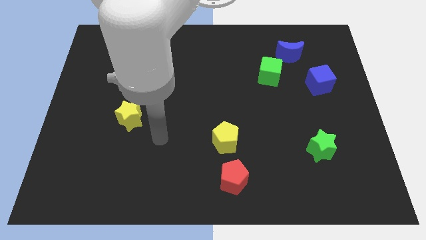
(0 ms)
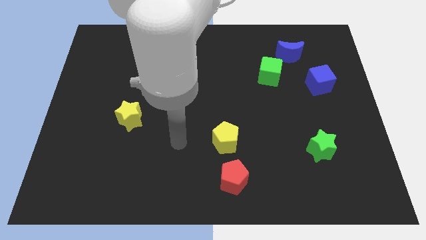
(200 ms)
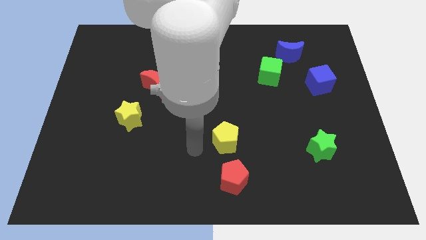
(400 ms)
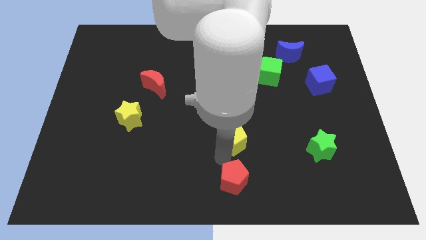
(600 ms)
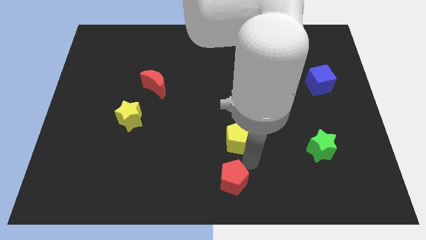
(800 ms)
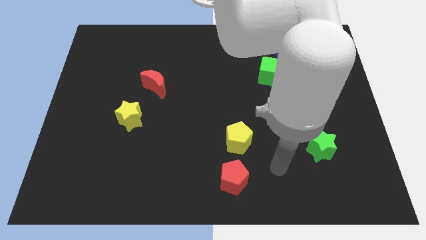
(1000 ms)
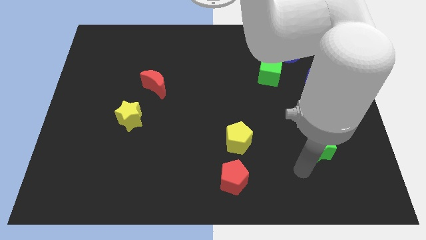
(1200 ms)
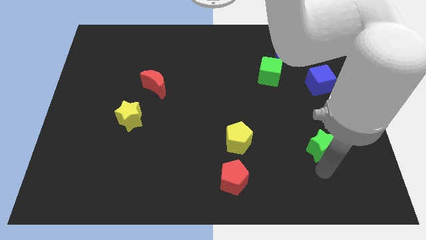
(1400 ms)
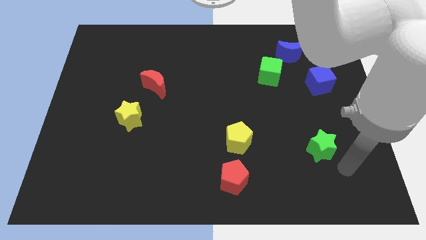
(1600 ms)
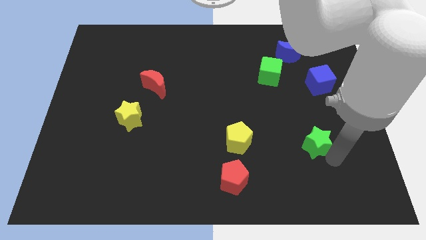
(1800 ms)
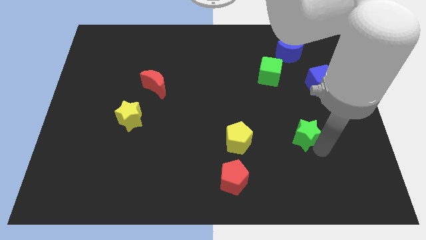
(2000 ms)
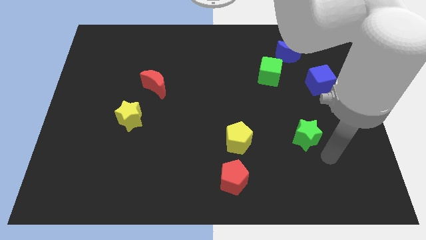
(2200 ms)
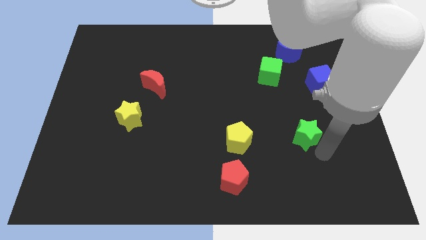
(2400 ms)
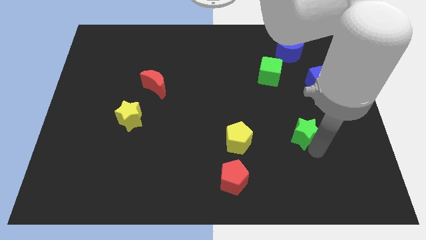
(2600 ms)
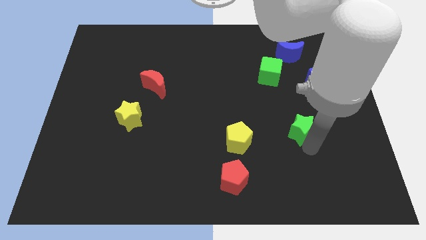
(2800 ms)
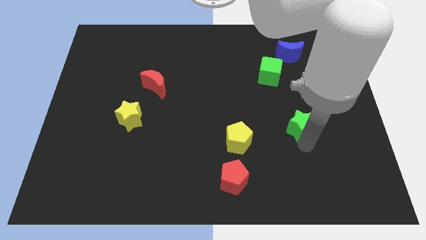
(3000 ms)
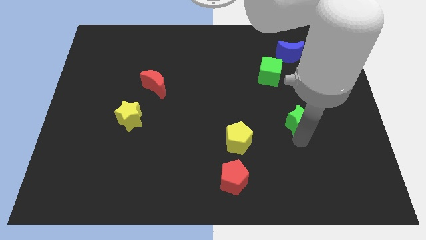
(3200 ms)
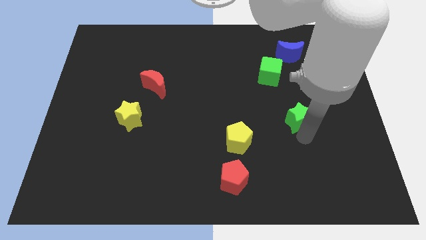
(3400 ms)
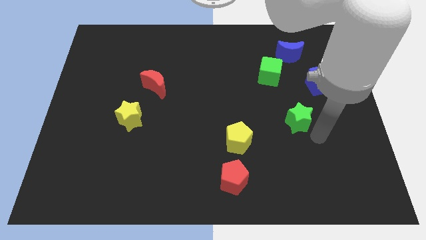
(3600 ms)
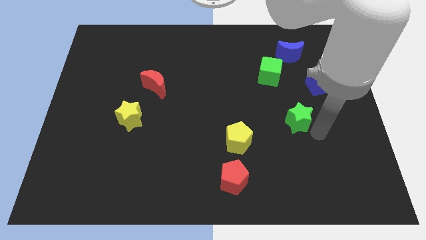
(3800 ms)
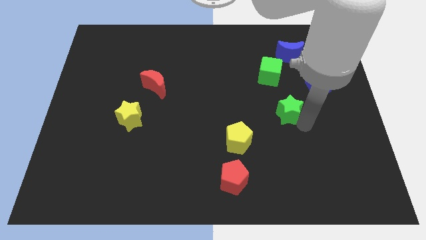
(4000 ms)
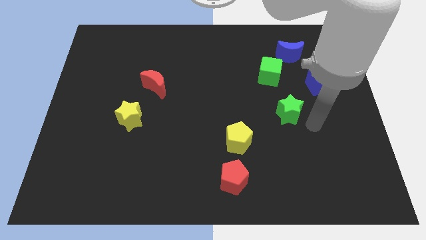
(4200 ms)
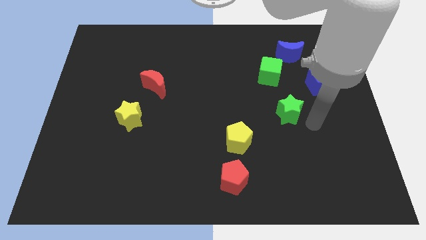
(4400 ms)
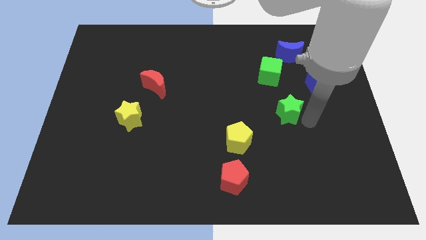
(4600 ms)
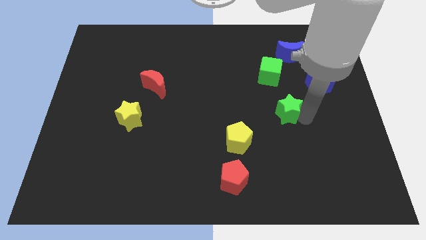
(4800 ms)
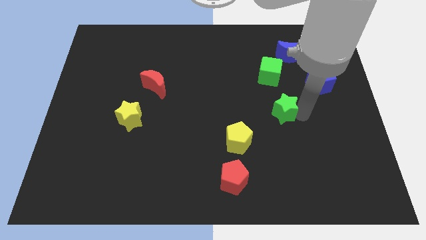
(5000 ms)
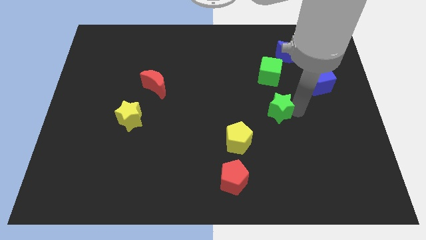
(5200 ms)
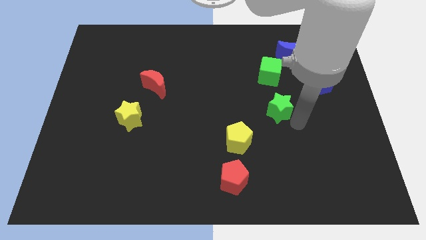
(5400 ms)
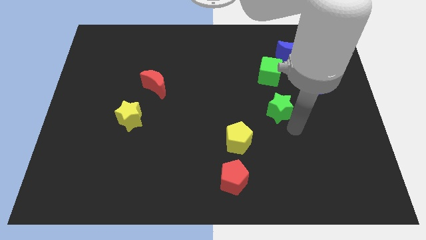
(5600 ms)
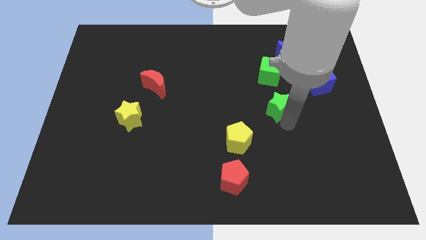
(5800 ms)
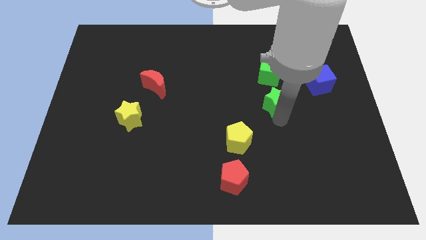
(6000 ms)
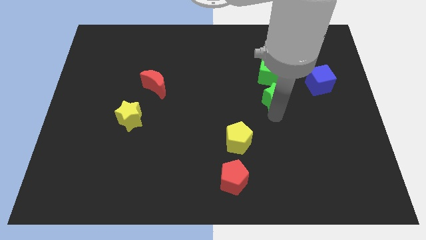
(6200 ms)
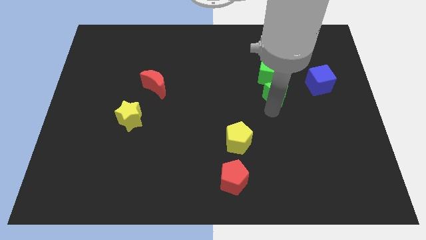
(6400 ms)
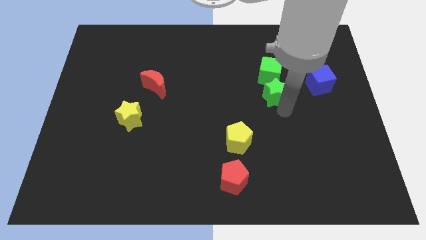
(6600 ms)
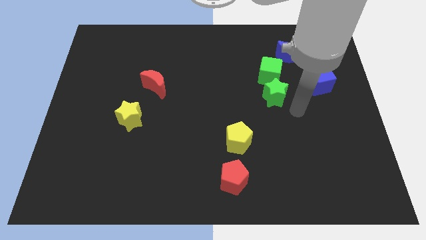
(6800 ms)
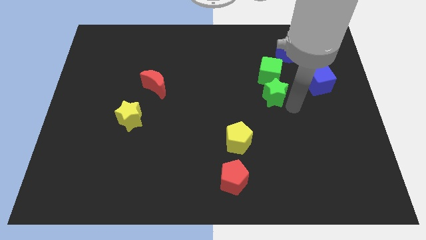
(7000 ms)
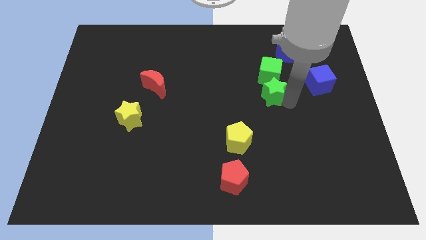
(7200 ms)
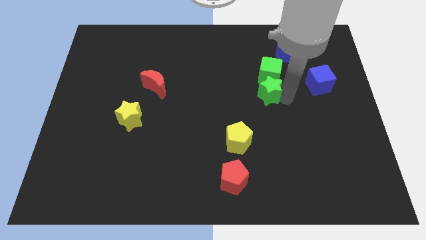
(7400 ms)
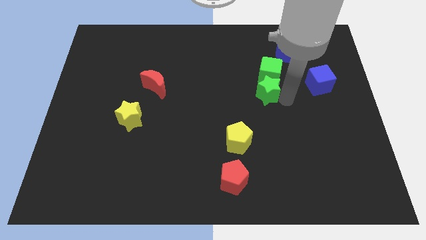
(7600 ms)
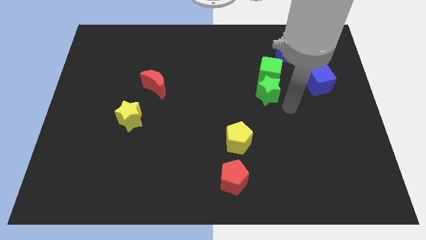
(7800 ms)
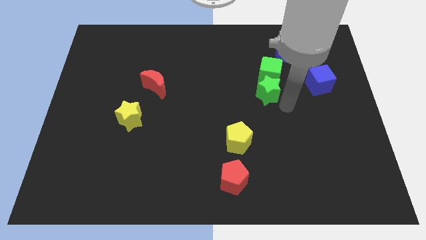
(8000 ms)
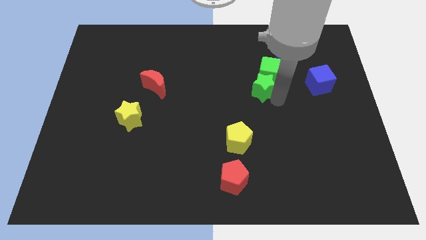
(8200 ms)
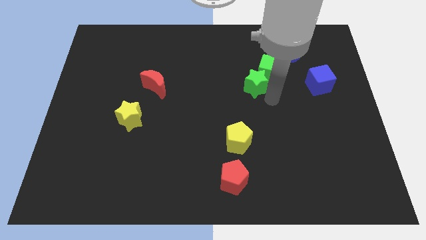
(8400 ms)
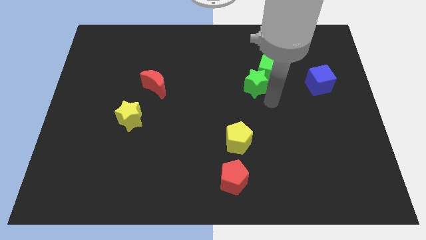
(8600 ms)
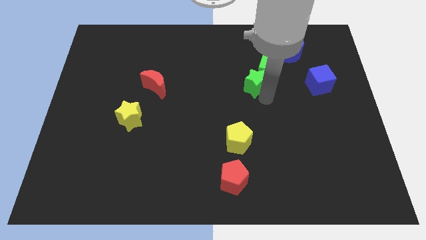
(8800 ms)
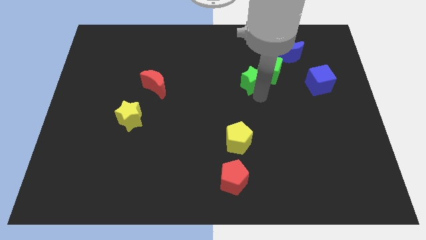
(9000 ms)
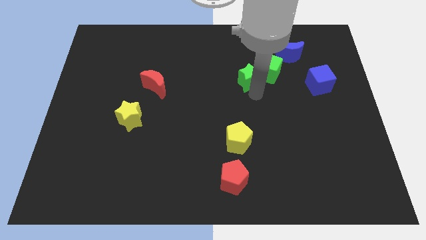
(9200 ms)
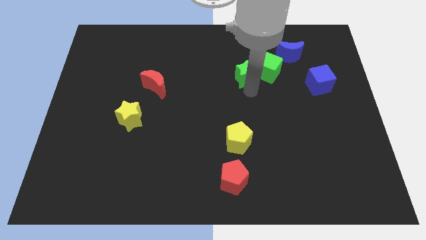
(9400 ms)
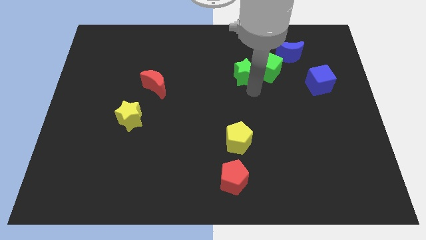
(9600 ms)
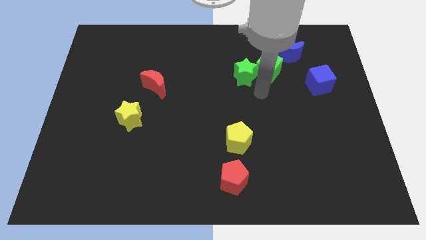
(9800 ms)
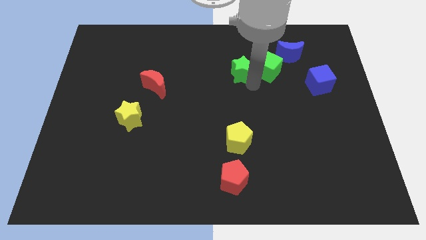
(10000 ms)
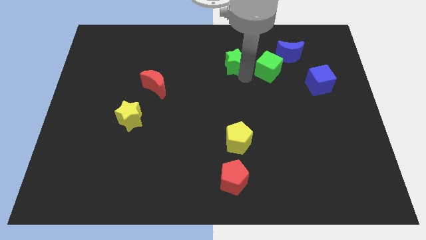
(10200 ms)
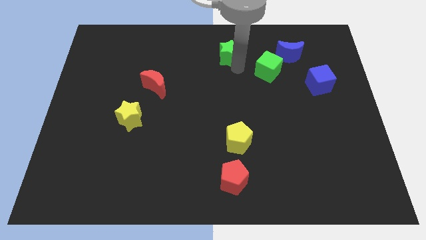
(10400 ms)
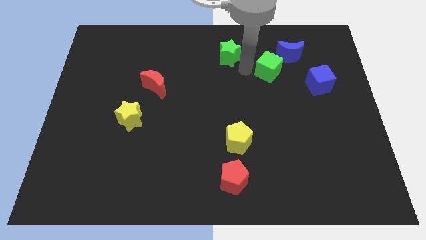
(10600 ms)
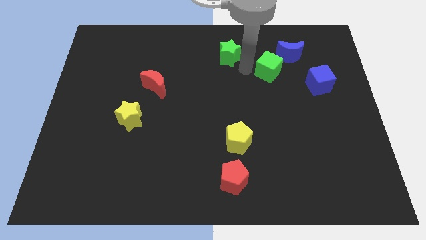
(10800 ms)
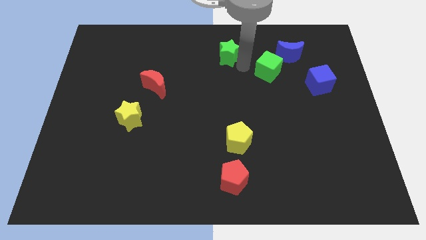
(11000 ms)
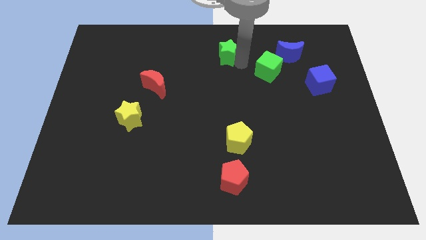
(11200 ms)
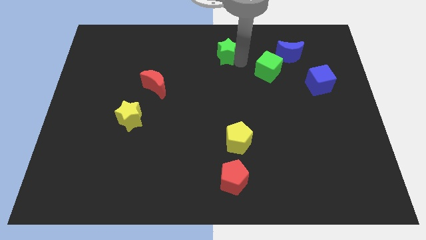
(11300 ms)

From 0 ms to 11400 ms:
slide the green star to the top side

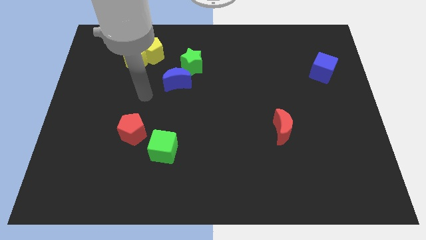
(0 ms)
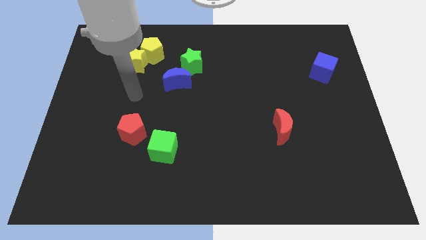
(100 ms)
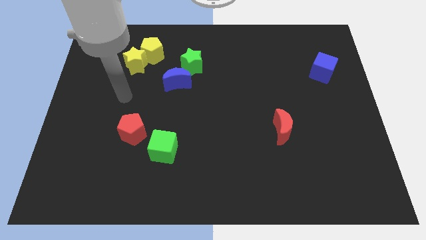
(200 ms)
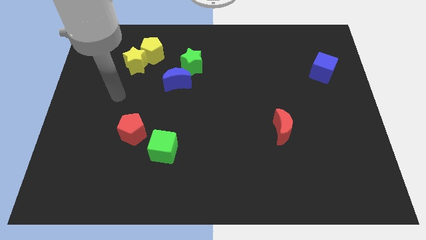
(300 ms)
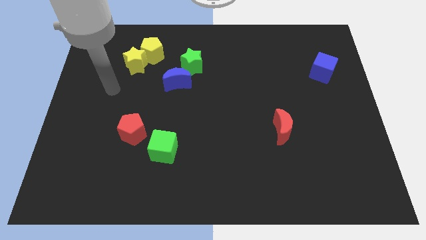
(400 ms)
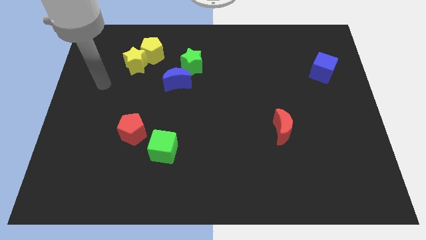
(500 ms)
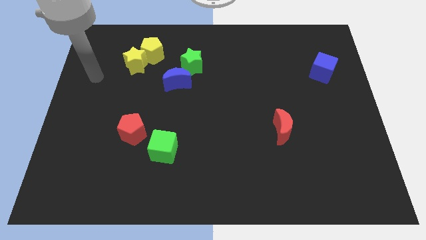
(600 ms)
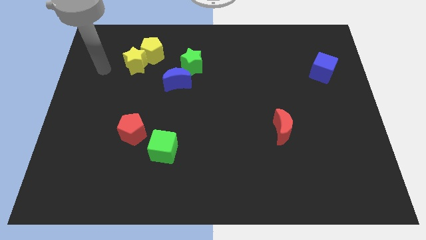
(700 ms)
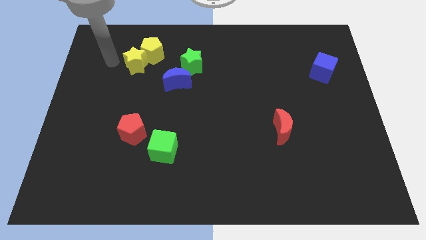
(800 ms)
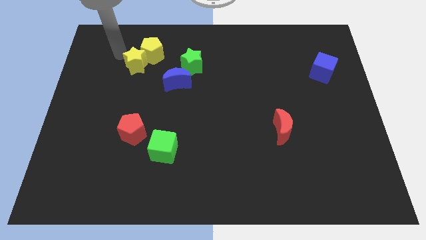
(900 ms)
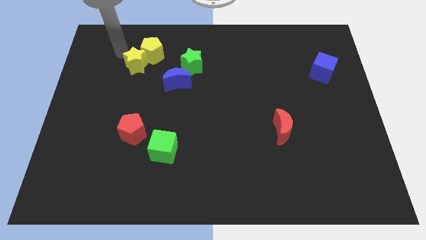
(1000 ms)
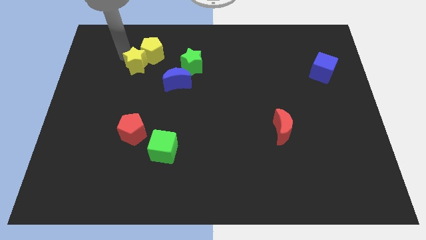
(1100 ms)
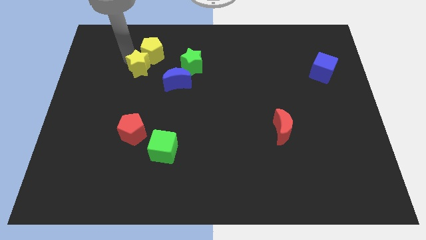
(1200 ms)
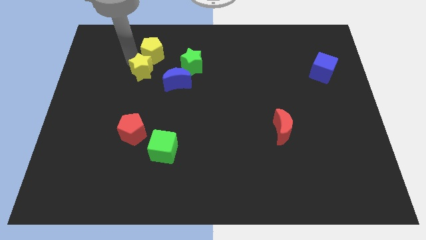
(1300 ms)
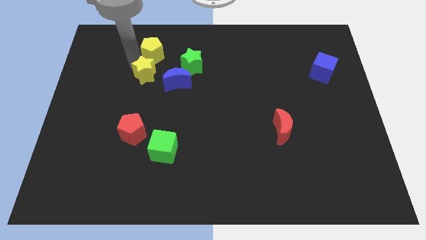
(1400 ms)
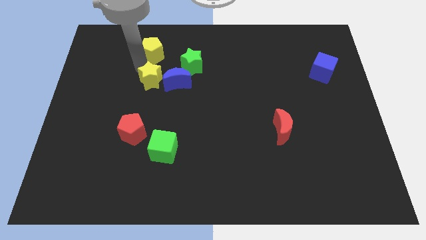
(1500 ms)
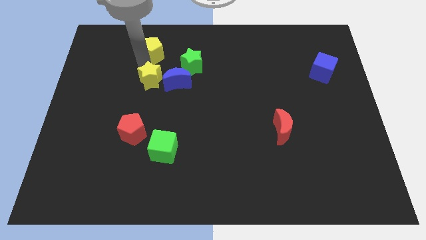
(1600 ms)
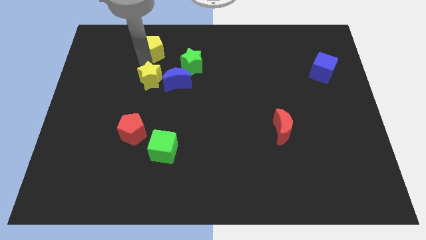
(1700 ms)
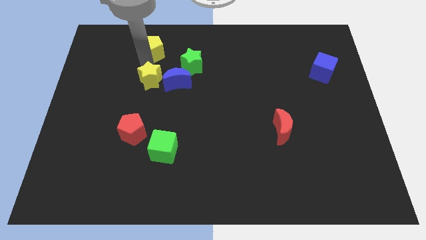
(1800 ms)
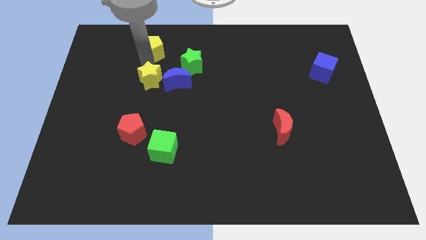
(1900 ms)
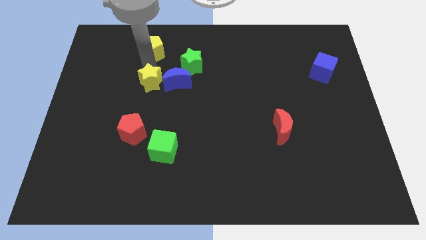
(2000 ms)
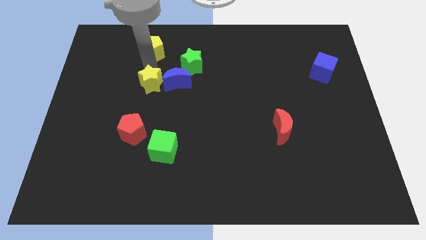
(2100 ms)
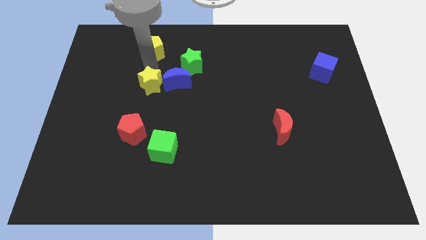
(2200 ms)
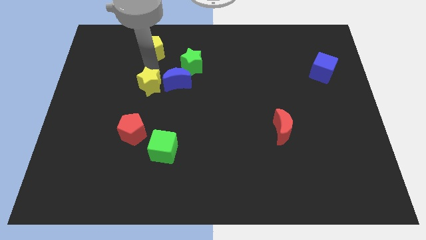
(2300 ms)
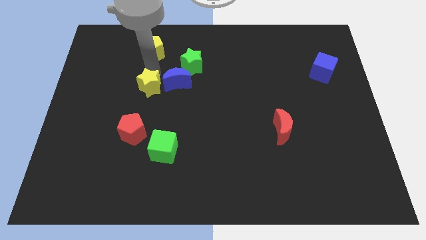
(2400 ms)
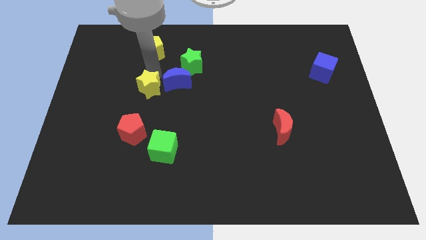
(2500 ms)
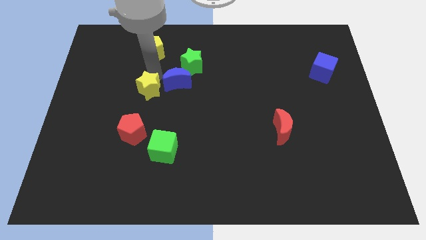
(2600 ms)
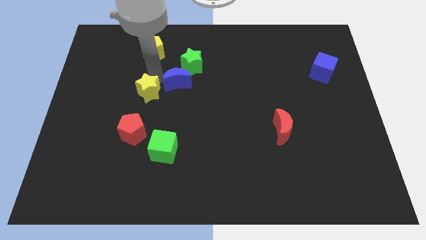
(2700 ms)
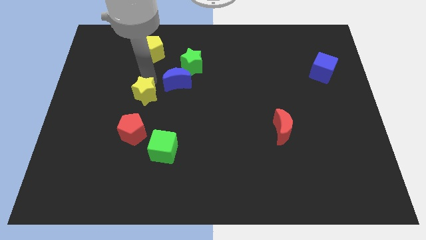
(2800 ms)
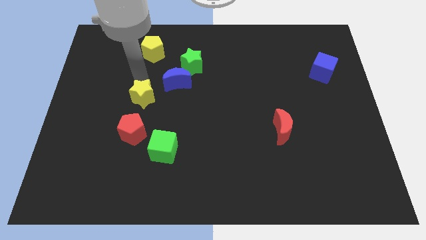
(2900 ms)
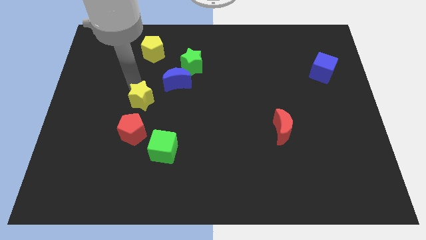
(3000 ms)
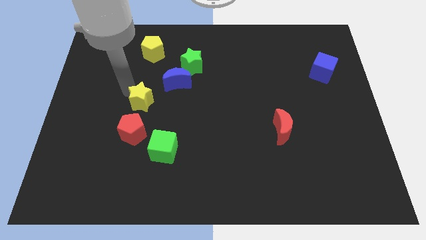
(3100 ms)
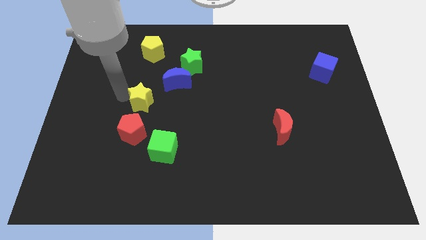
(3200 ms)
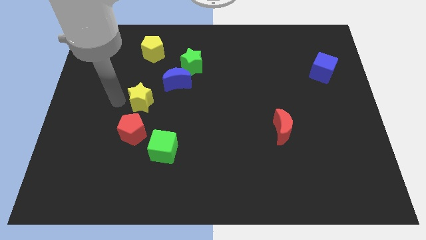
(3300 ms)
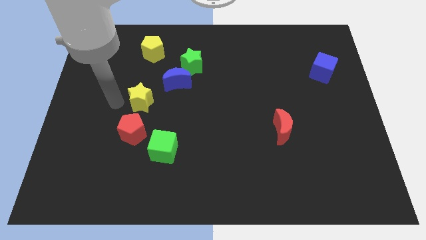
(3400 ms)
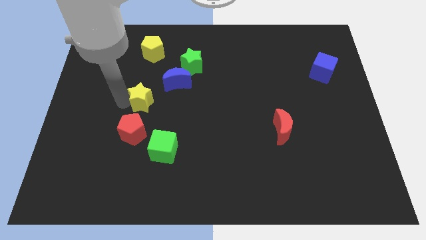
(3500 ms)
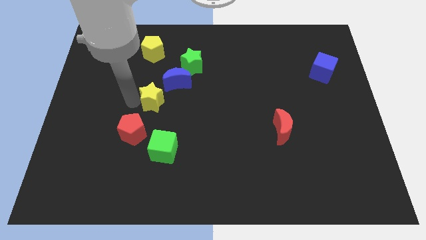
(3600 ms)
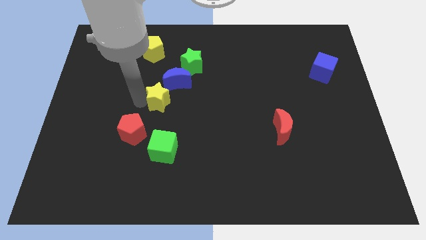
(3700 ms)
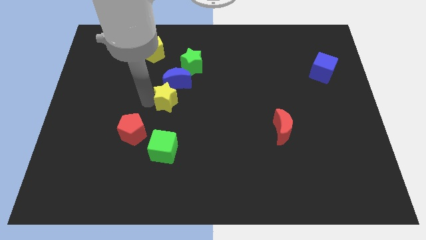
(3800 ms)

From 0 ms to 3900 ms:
slide the yellow star to the center
